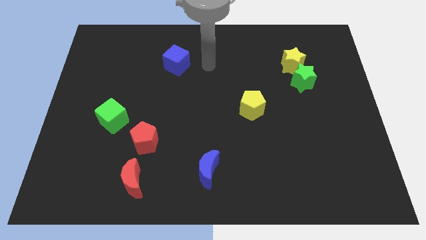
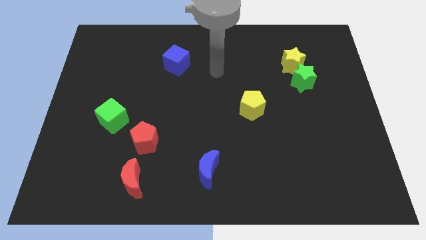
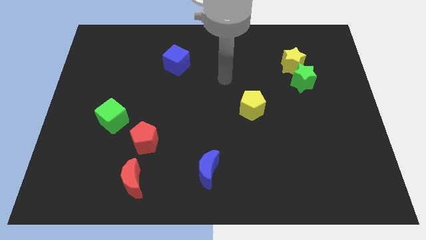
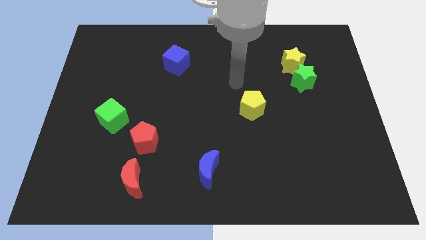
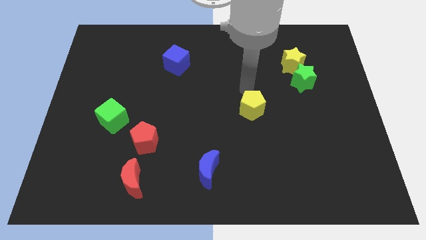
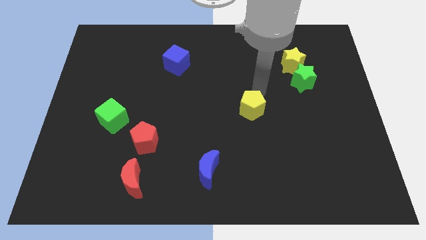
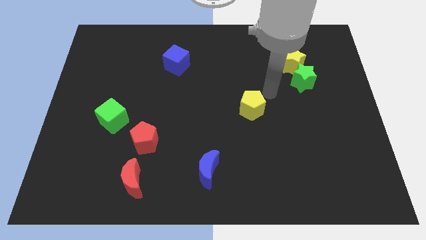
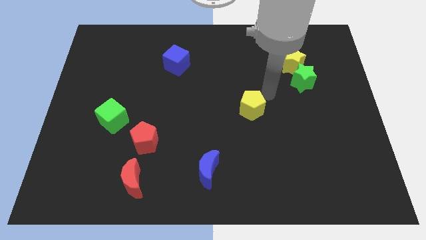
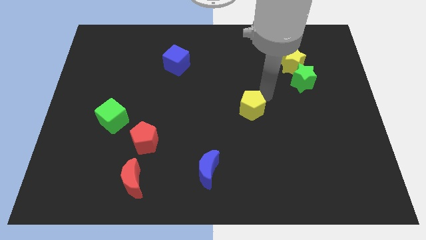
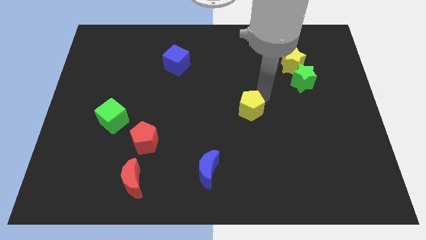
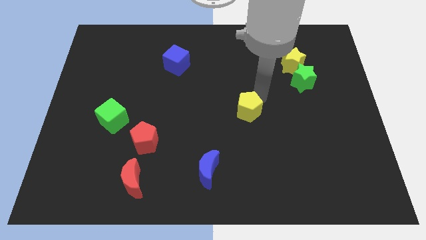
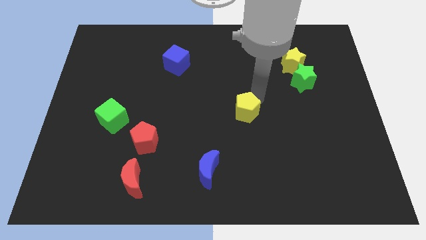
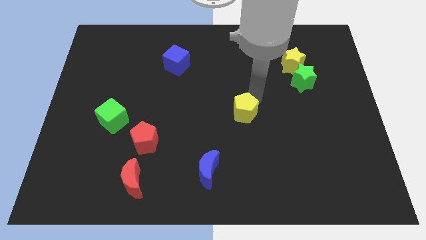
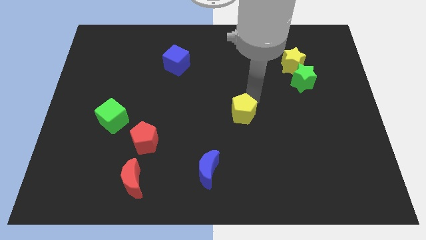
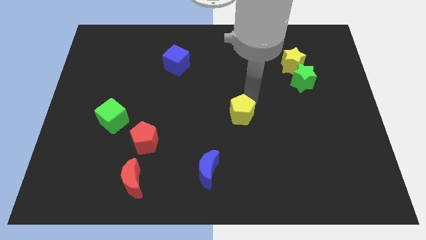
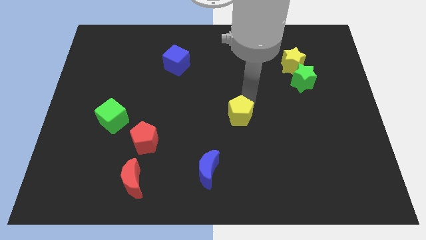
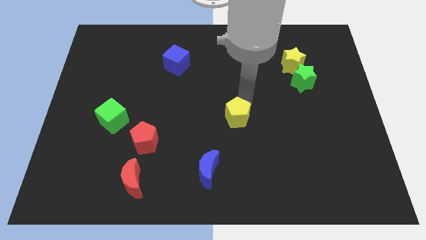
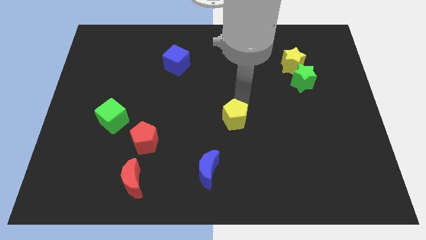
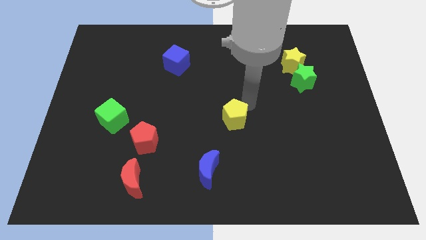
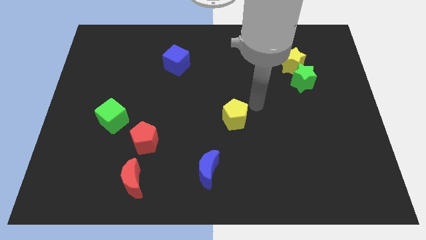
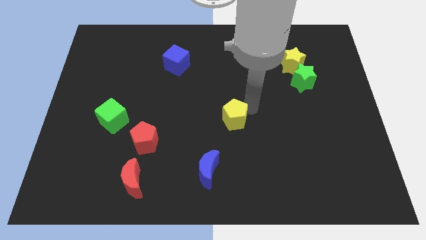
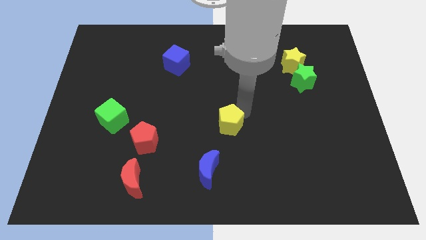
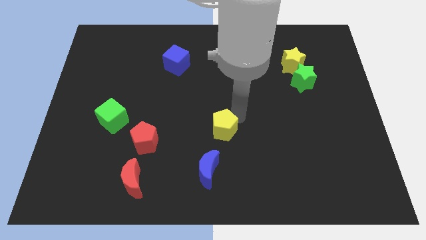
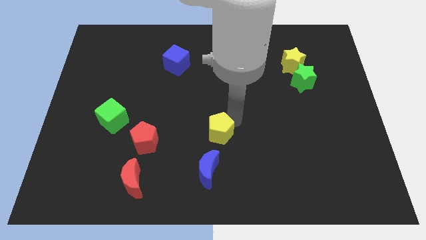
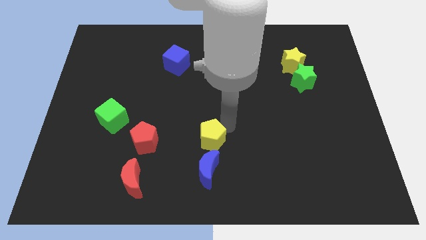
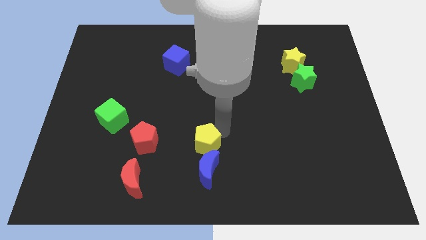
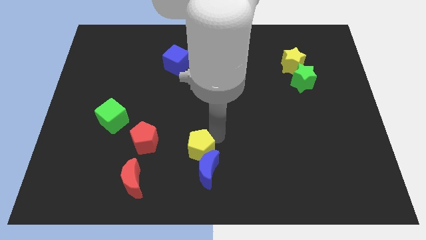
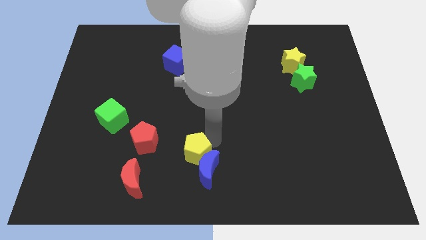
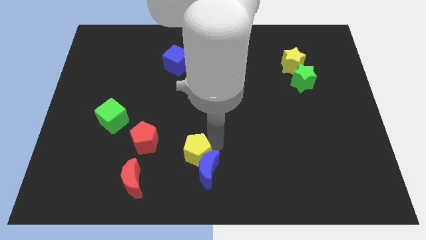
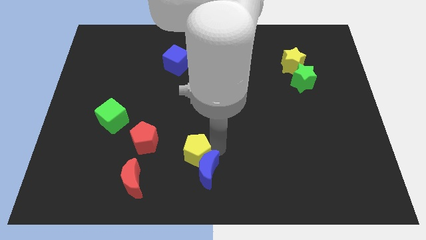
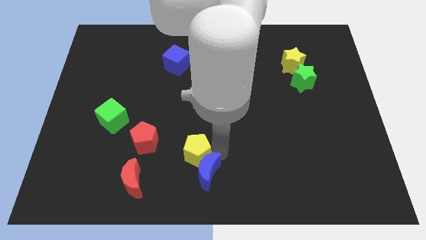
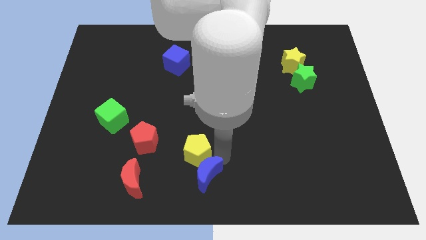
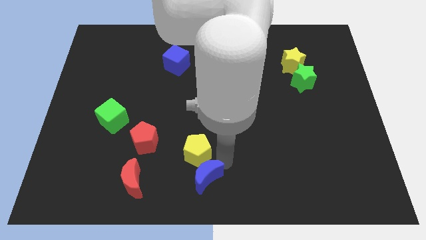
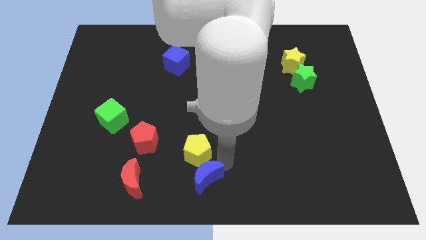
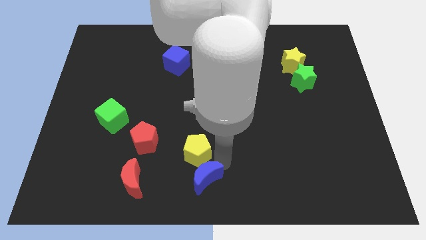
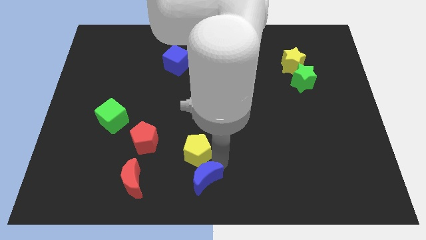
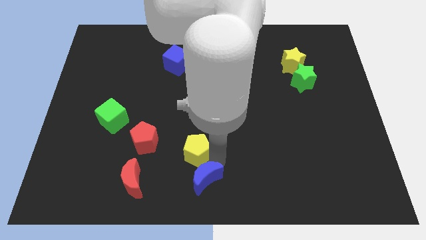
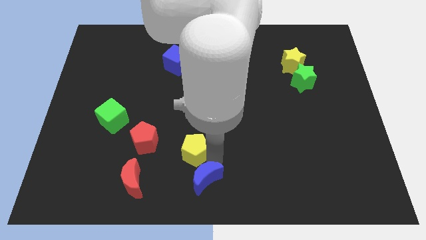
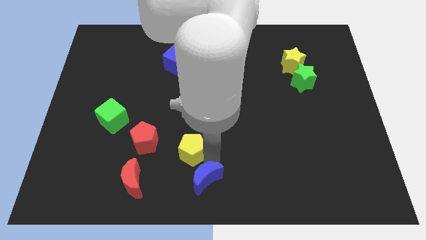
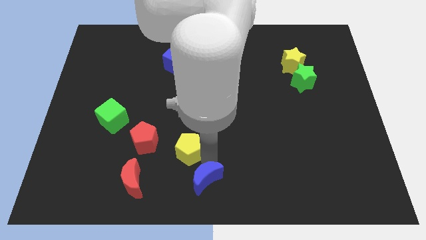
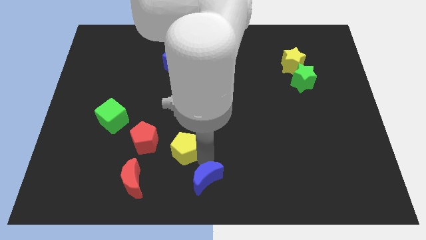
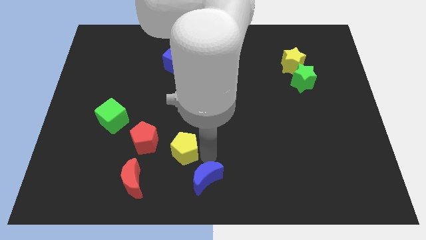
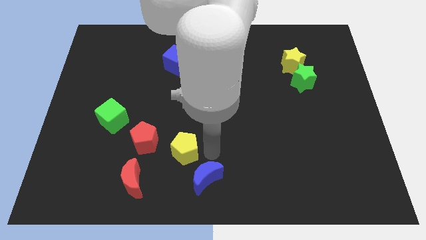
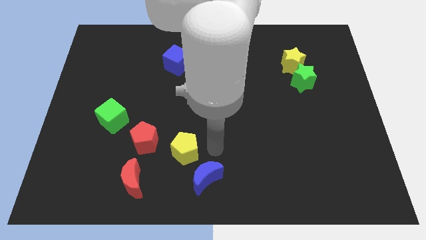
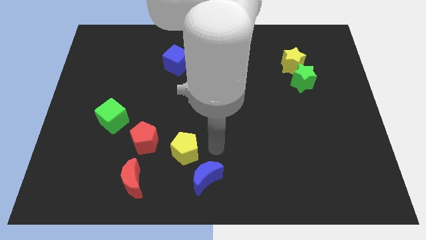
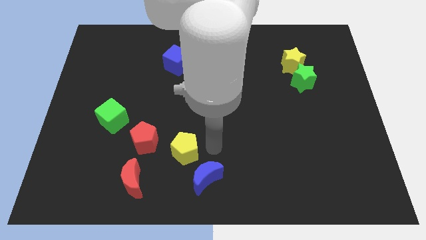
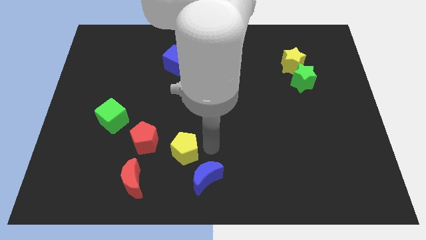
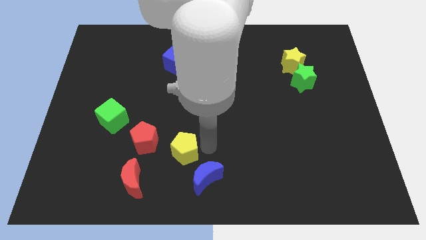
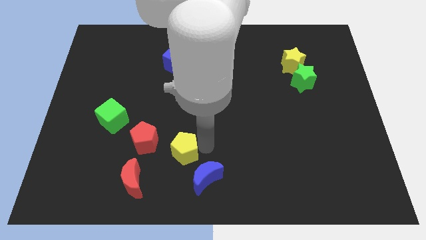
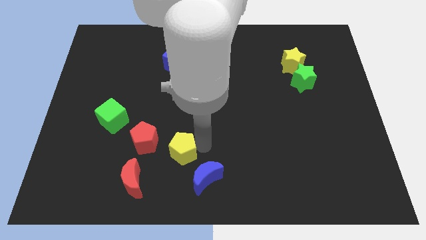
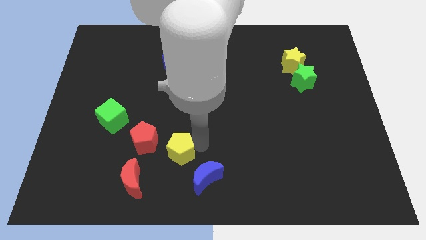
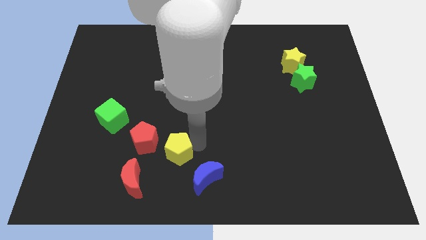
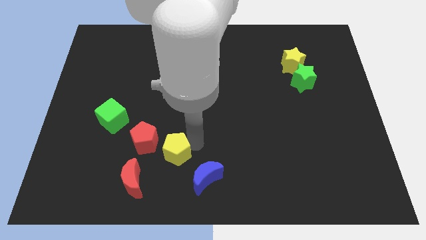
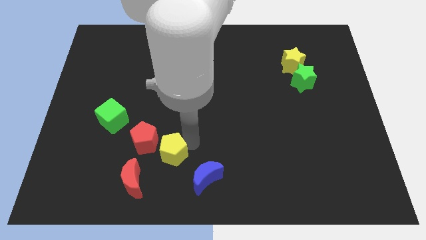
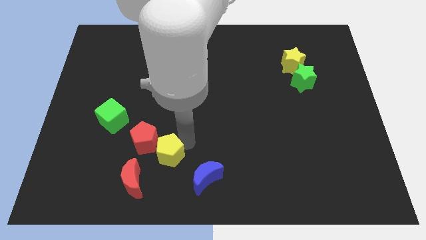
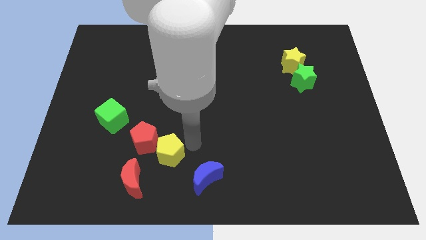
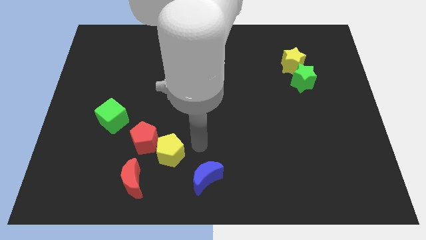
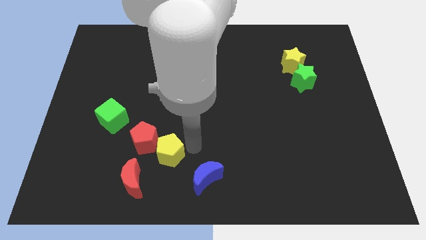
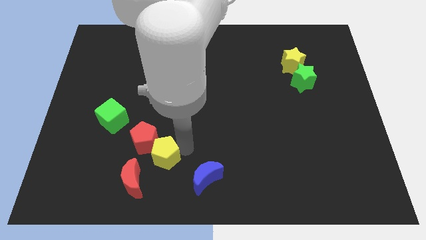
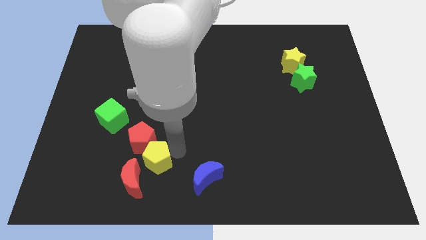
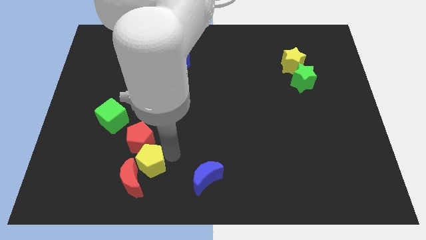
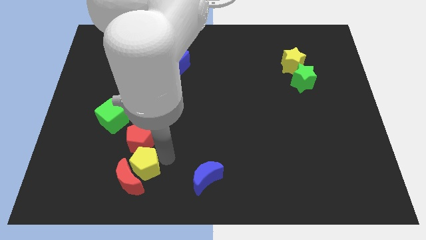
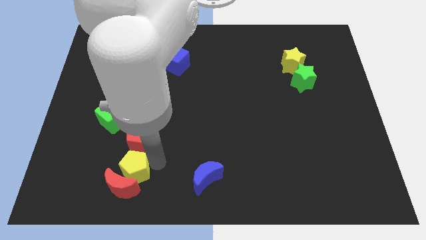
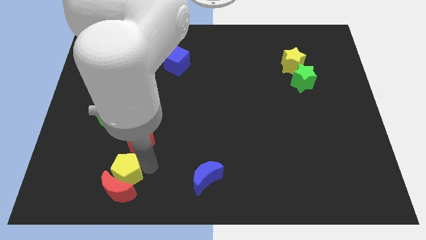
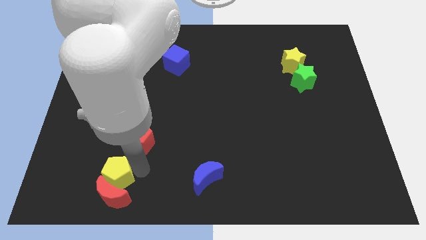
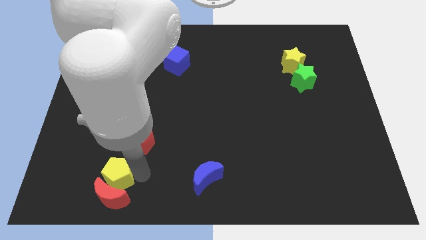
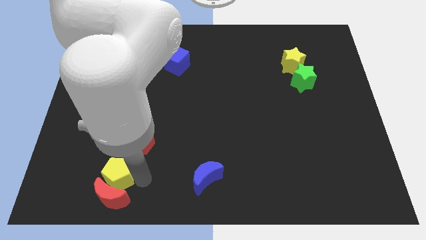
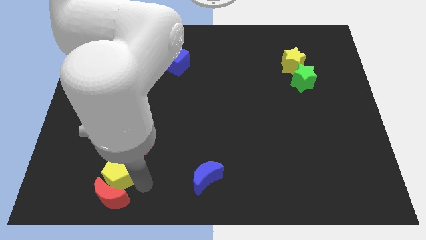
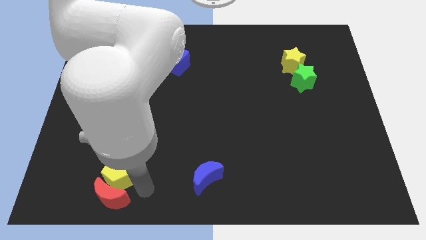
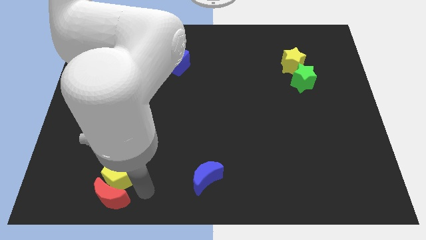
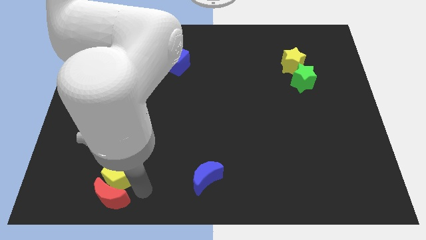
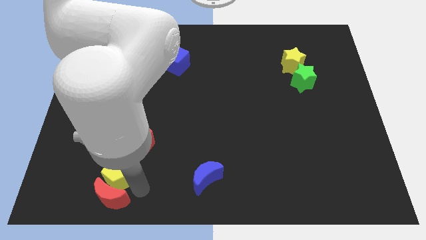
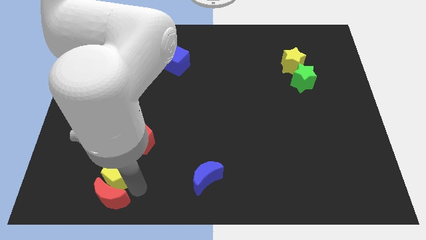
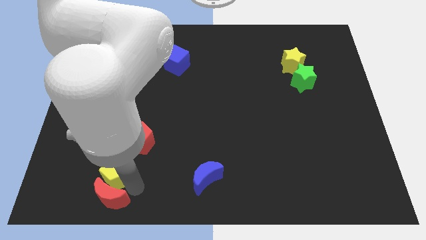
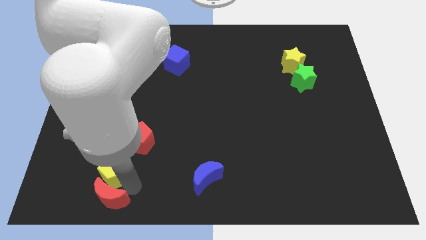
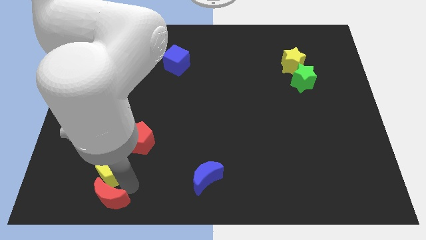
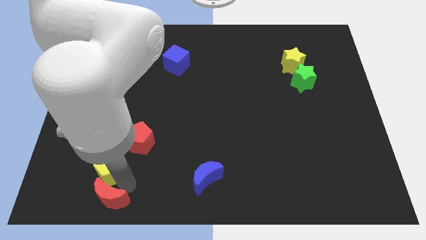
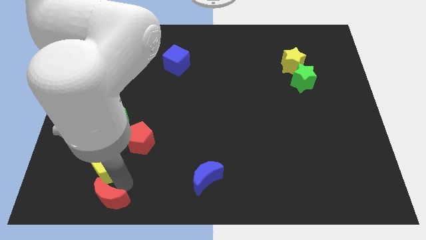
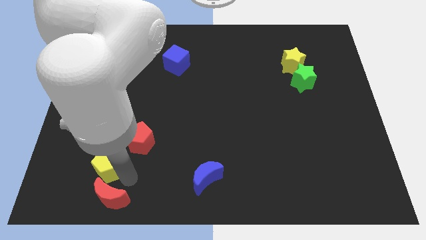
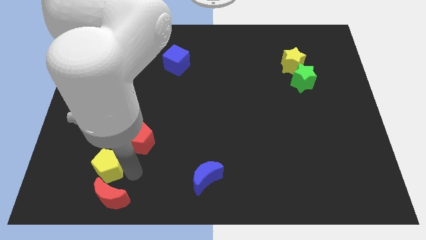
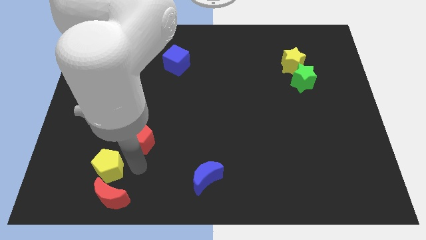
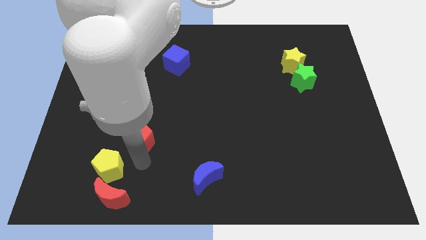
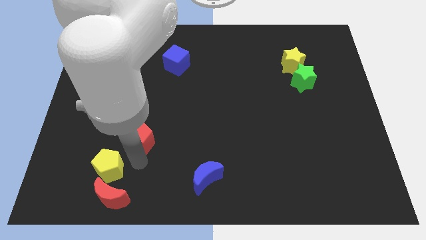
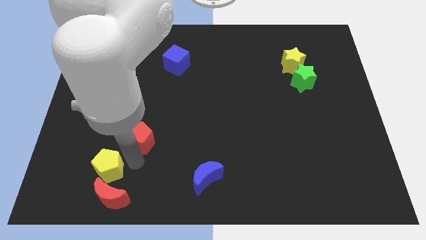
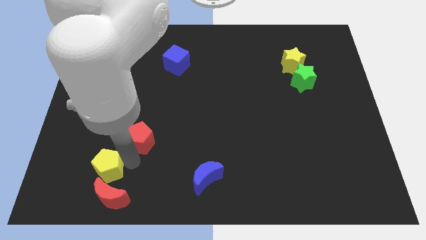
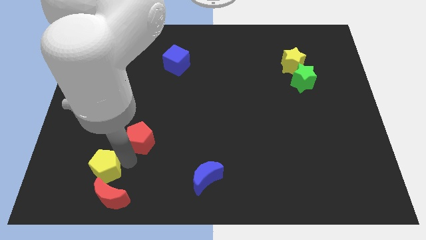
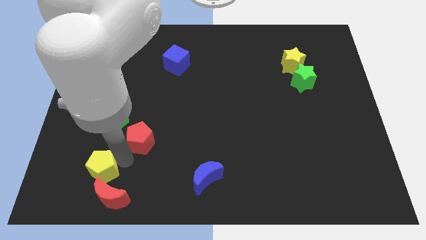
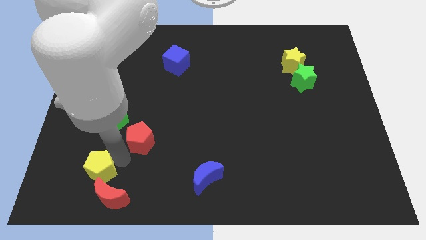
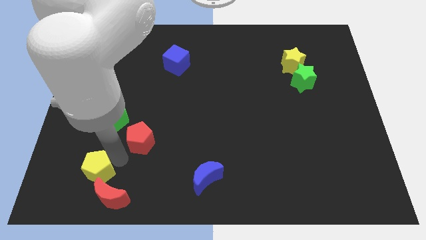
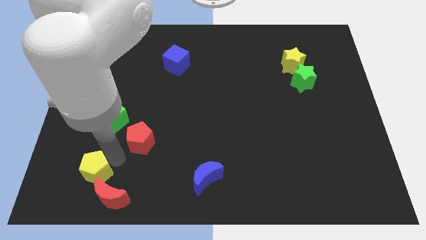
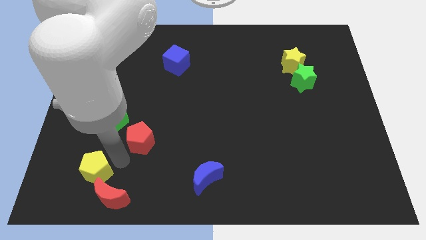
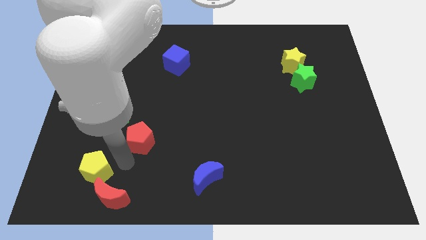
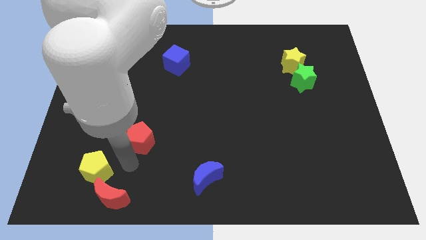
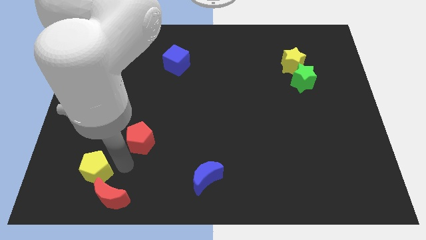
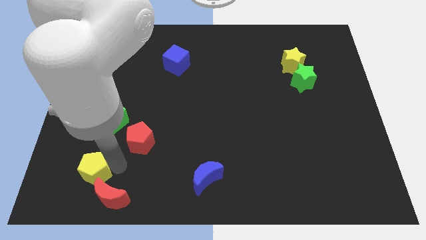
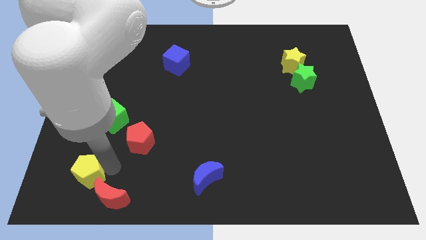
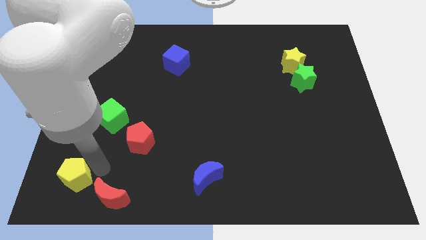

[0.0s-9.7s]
push the yellow pentagon to the bottom left of the board
